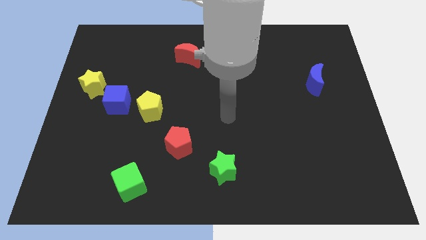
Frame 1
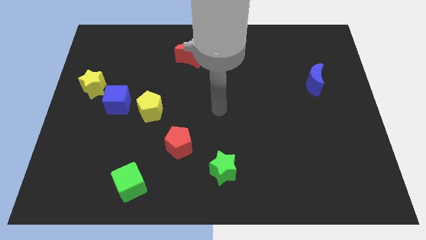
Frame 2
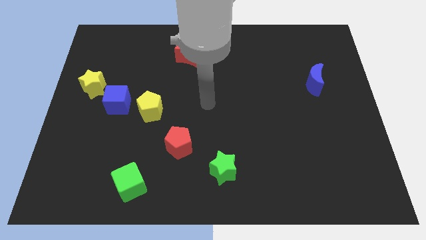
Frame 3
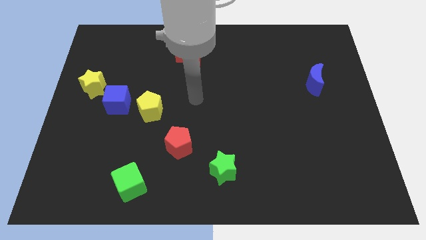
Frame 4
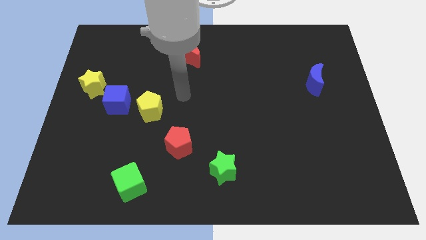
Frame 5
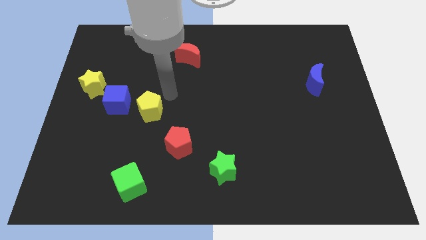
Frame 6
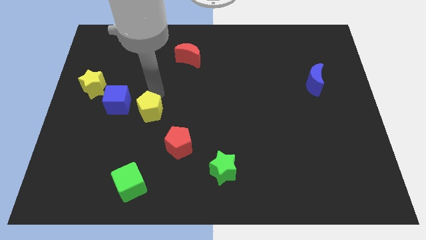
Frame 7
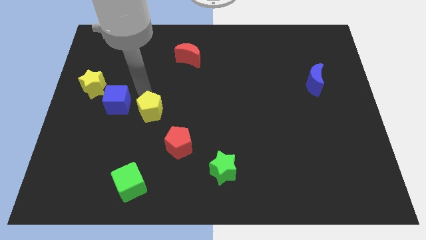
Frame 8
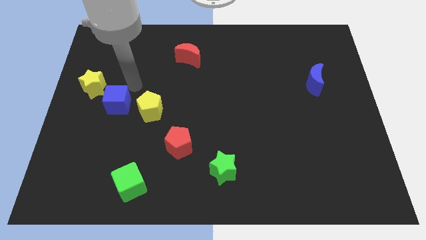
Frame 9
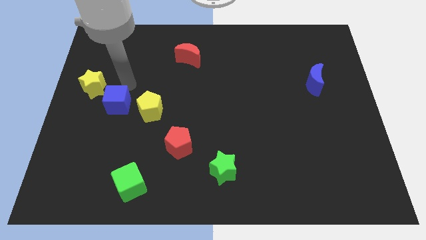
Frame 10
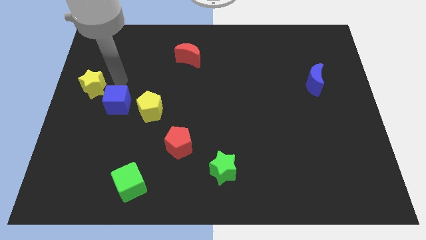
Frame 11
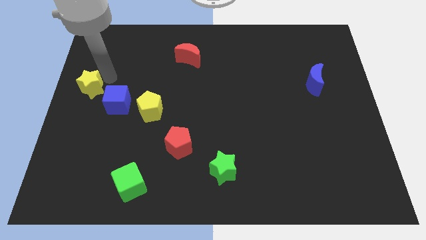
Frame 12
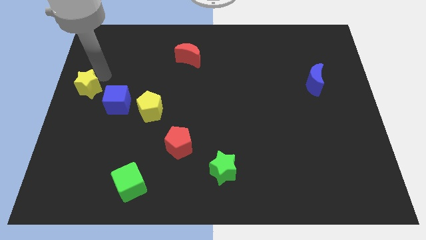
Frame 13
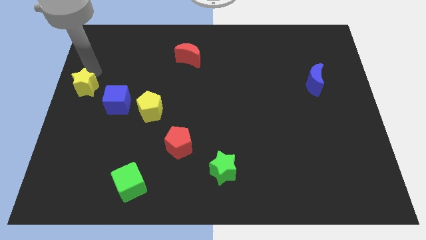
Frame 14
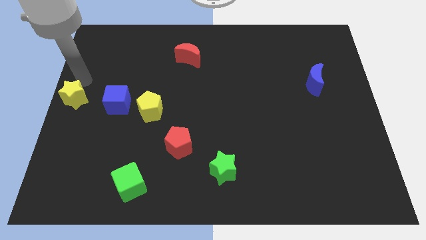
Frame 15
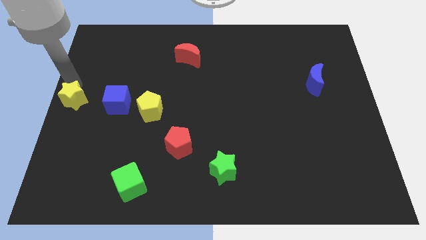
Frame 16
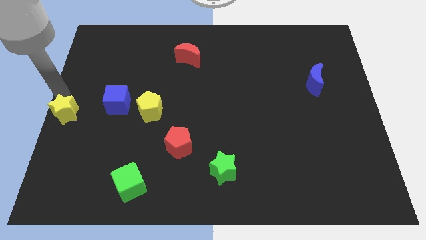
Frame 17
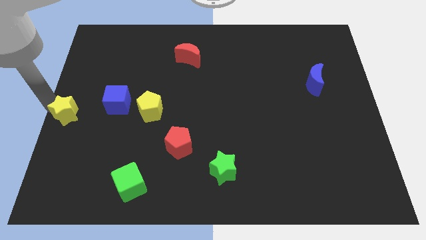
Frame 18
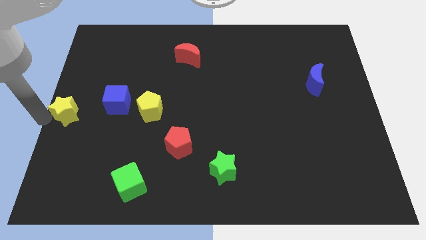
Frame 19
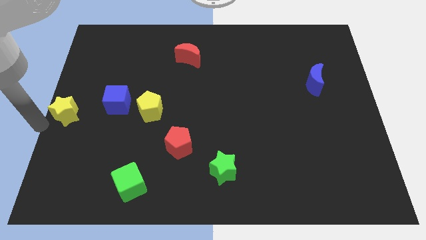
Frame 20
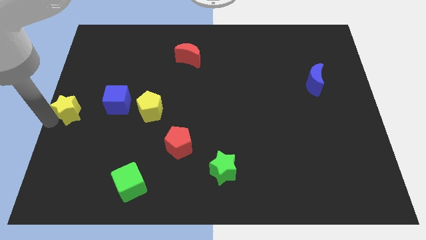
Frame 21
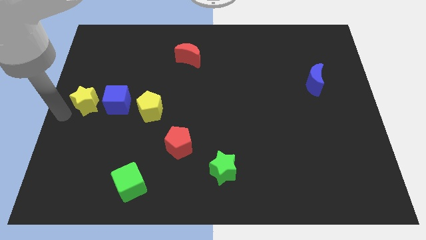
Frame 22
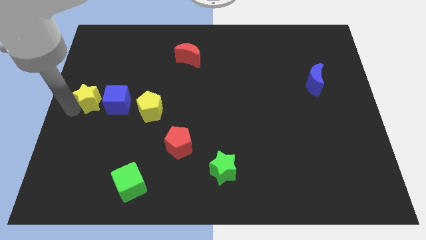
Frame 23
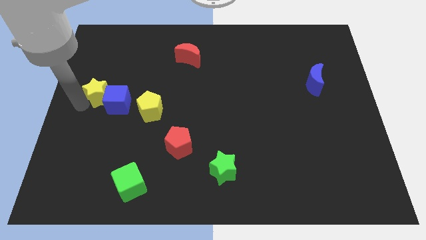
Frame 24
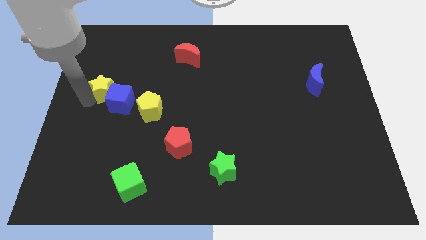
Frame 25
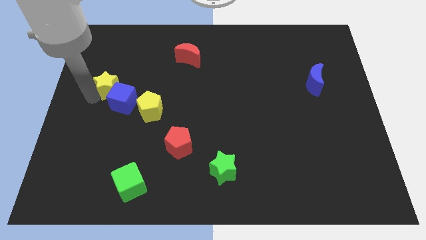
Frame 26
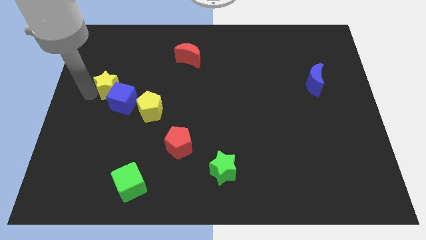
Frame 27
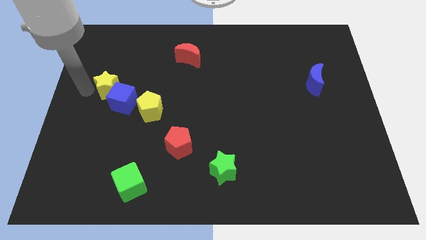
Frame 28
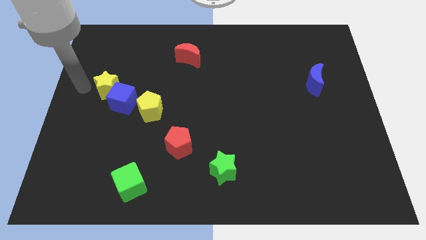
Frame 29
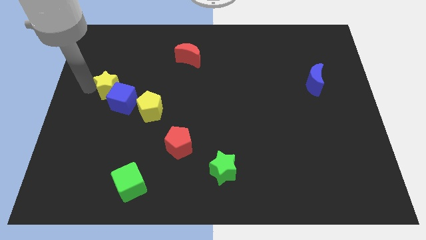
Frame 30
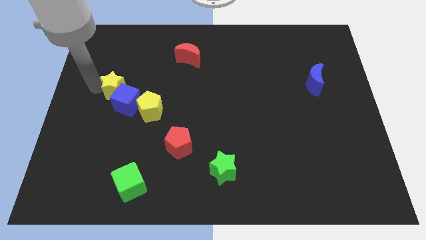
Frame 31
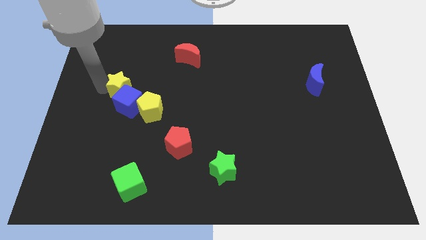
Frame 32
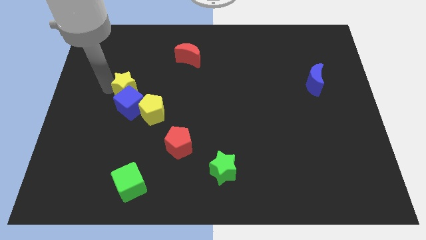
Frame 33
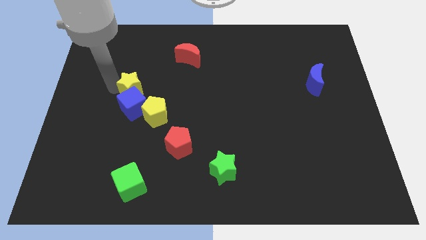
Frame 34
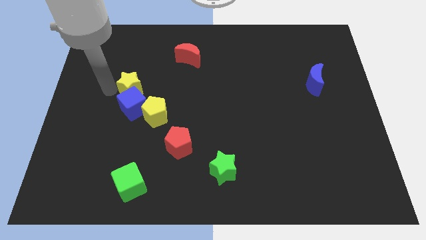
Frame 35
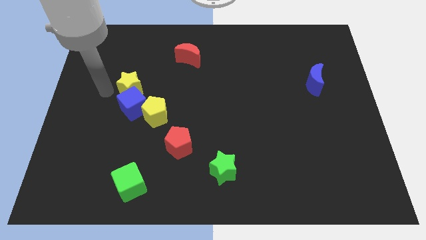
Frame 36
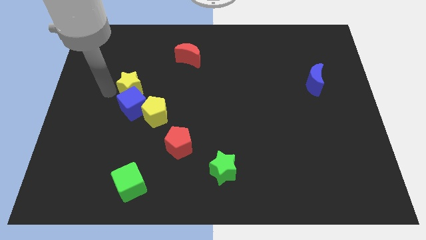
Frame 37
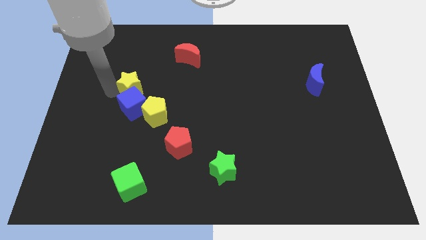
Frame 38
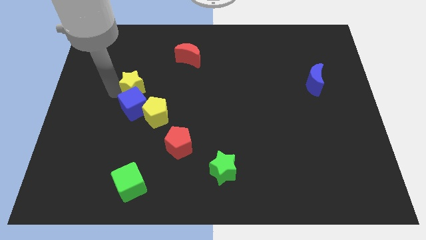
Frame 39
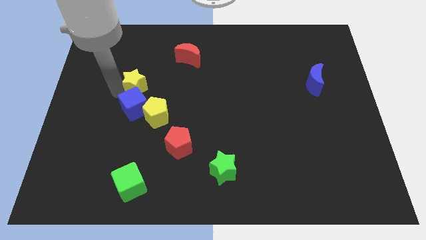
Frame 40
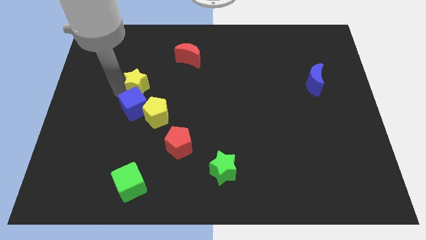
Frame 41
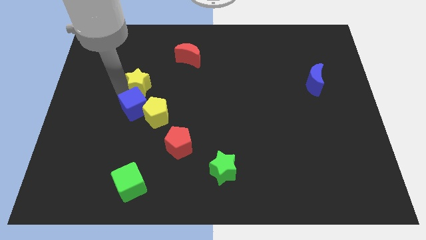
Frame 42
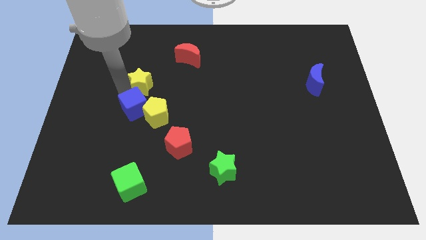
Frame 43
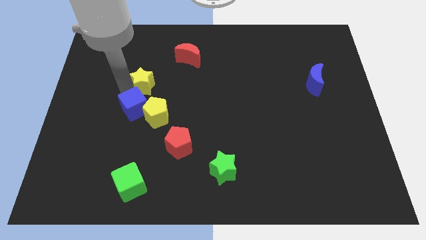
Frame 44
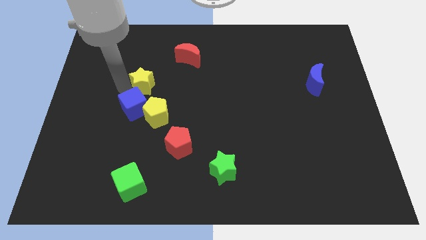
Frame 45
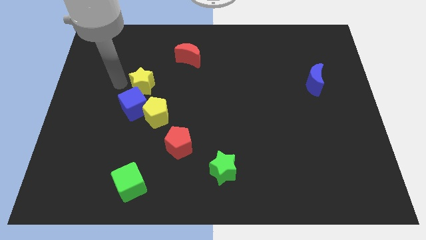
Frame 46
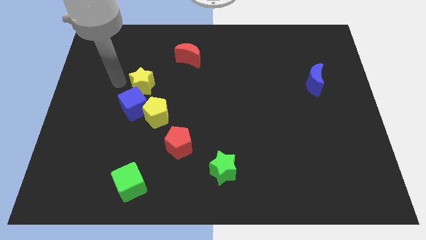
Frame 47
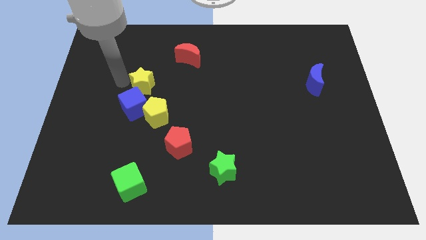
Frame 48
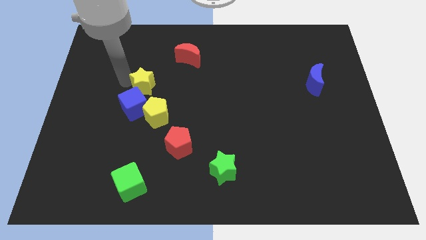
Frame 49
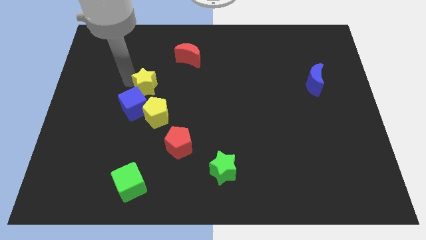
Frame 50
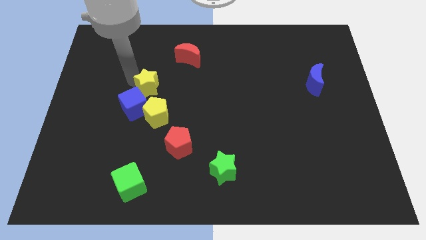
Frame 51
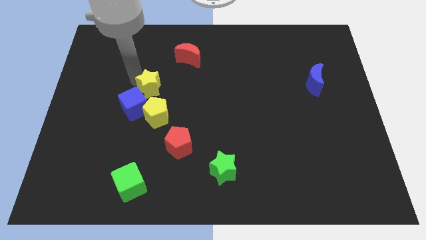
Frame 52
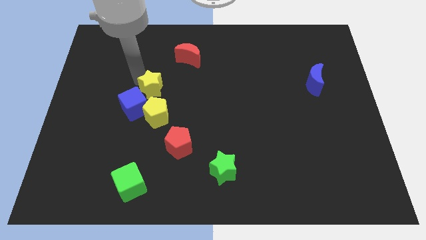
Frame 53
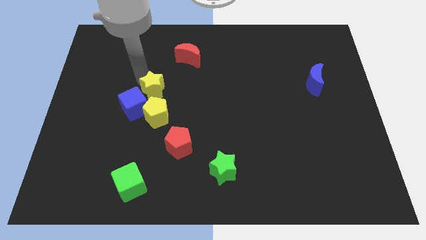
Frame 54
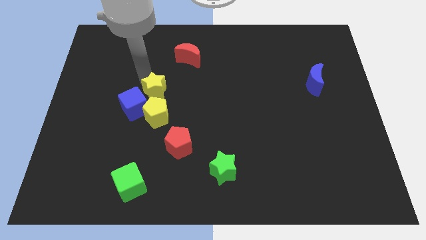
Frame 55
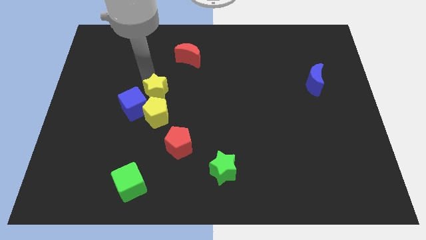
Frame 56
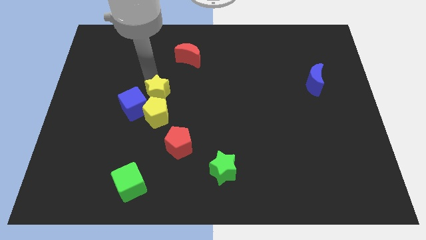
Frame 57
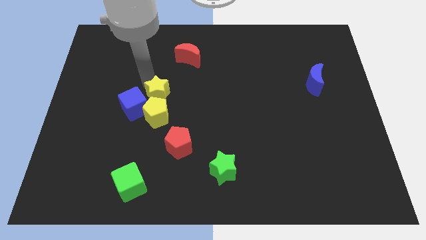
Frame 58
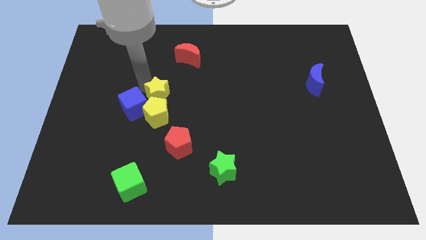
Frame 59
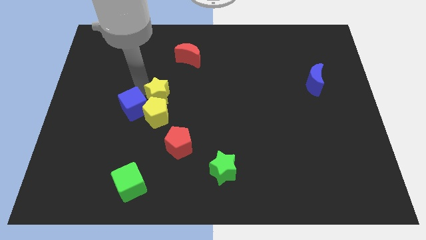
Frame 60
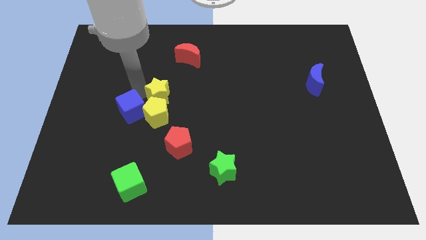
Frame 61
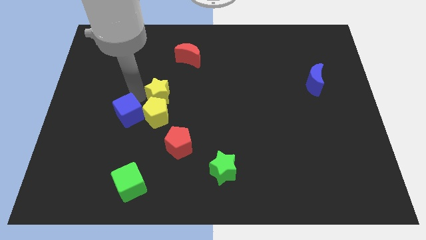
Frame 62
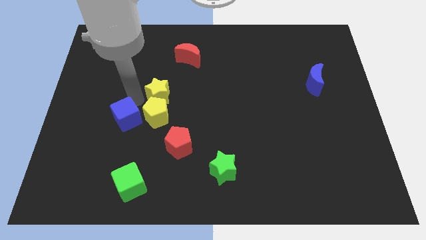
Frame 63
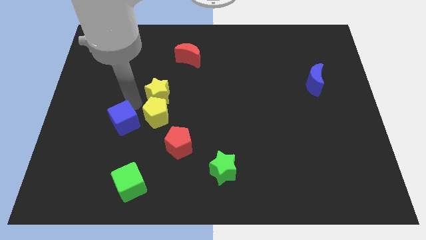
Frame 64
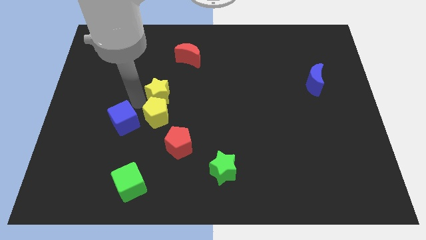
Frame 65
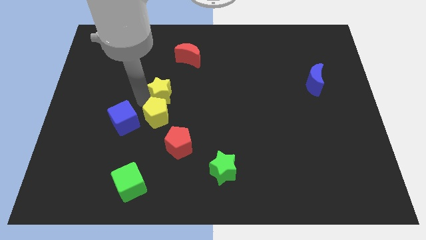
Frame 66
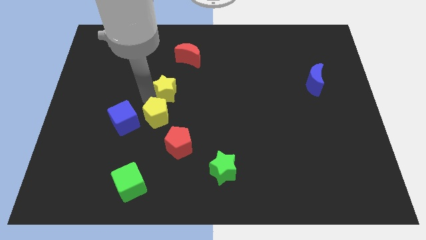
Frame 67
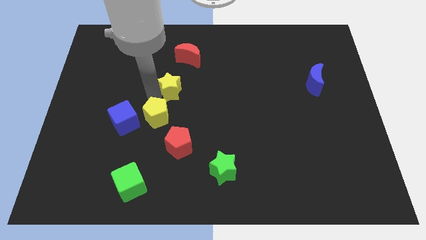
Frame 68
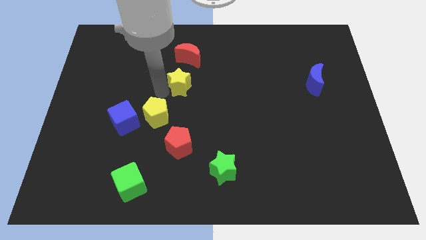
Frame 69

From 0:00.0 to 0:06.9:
move the yellow star to the right

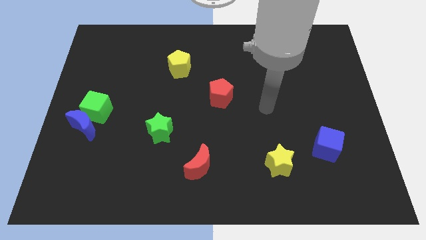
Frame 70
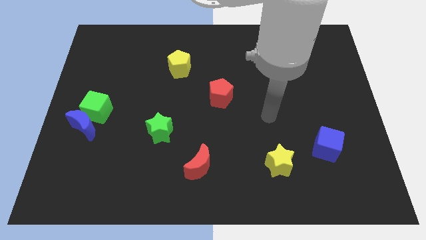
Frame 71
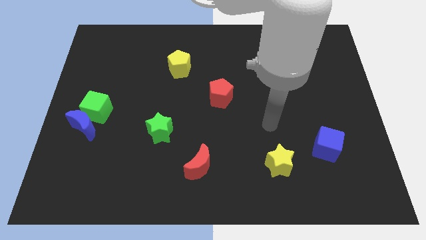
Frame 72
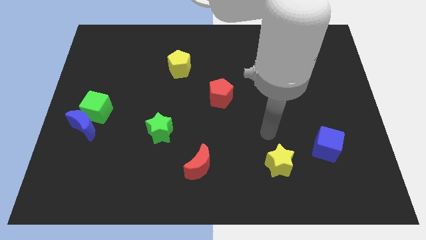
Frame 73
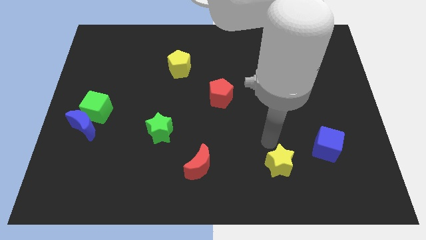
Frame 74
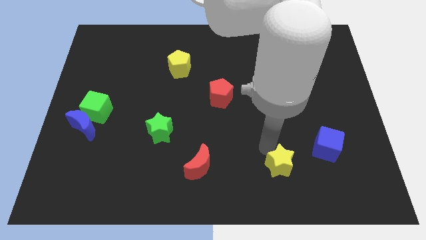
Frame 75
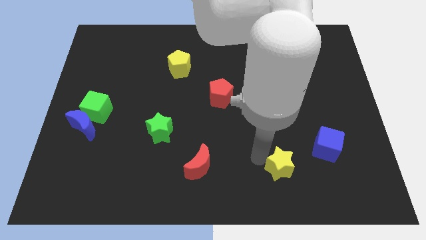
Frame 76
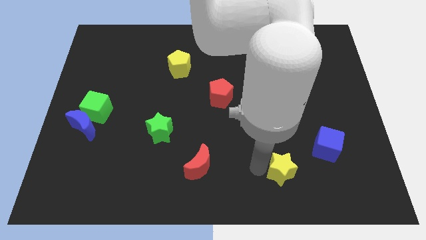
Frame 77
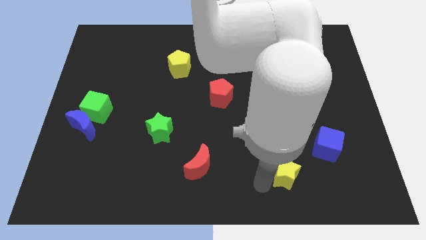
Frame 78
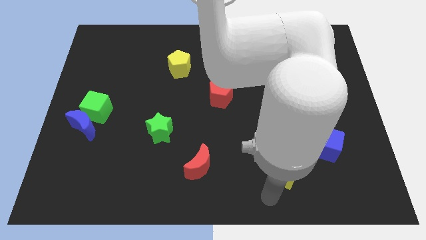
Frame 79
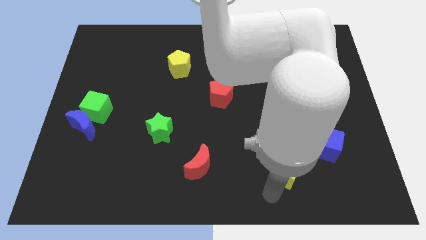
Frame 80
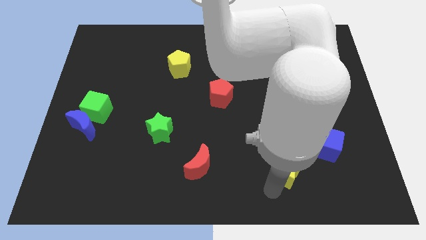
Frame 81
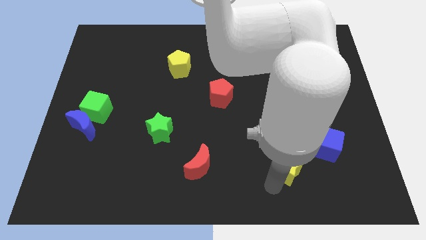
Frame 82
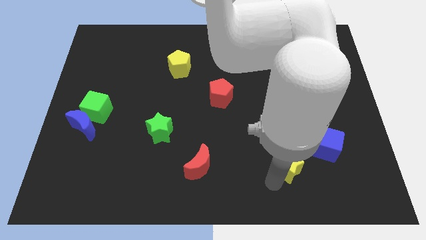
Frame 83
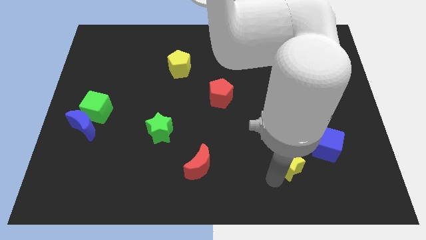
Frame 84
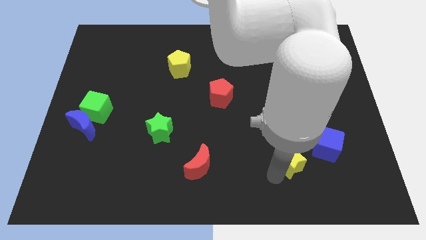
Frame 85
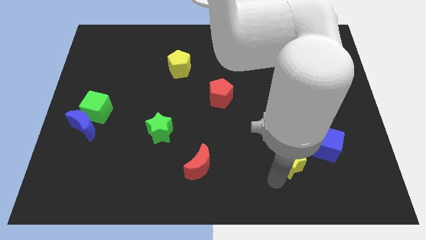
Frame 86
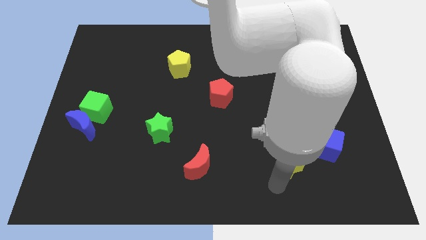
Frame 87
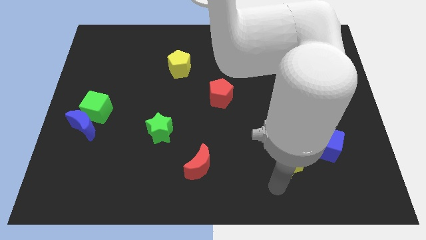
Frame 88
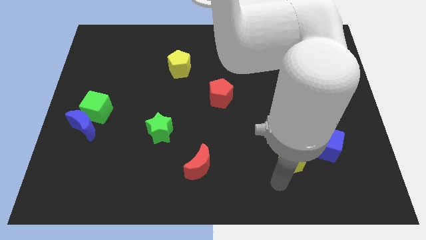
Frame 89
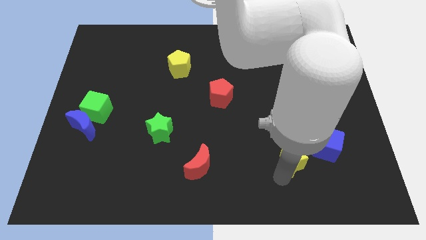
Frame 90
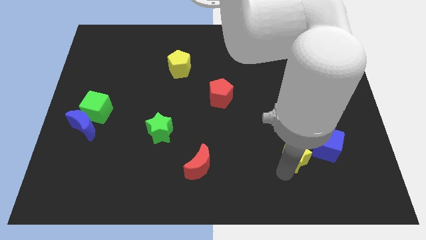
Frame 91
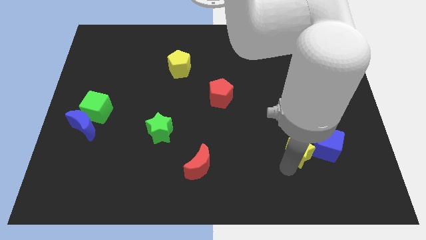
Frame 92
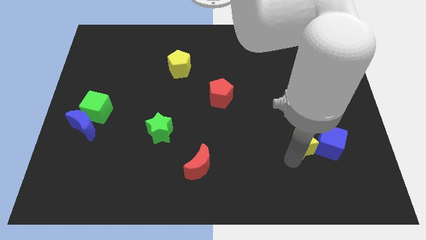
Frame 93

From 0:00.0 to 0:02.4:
push the yellow star up and to the right diagonally a little
